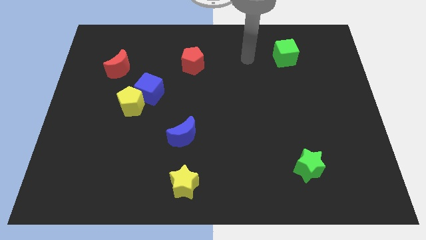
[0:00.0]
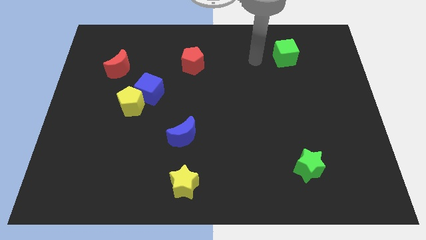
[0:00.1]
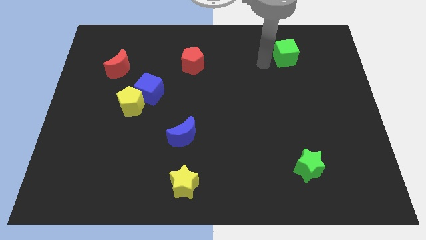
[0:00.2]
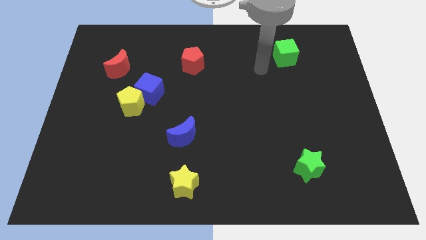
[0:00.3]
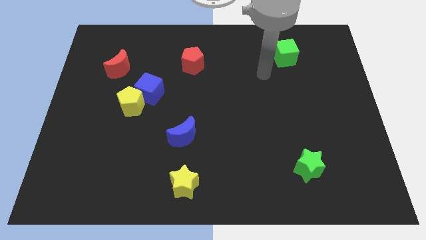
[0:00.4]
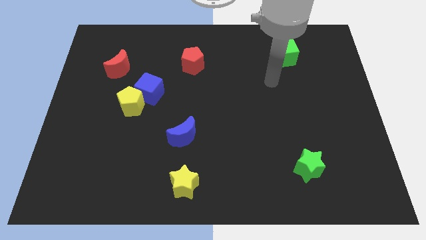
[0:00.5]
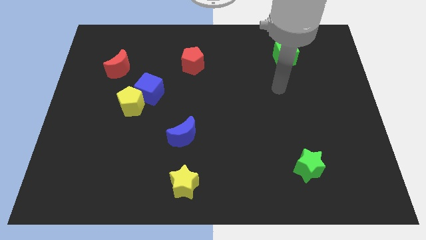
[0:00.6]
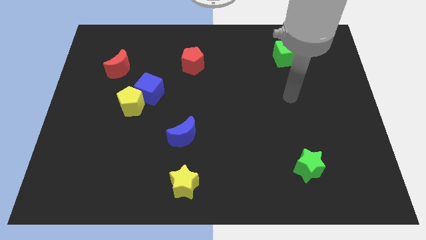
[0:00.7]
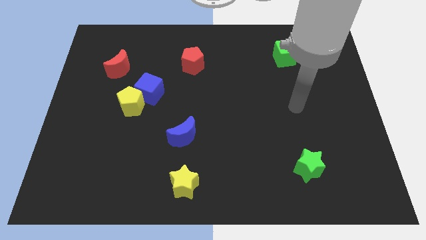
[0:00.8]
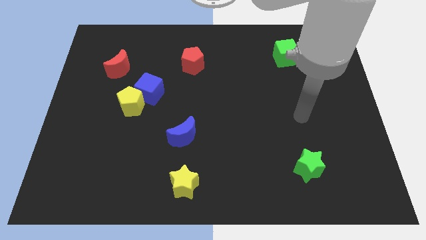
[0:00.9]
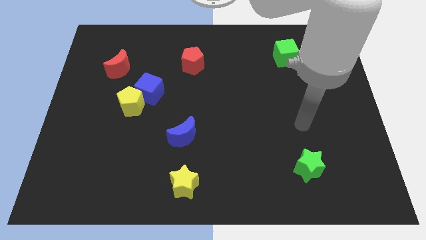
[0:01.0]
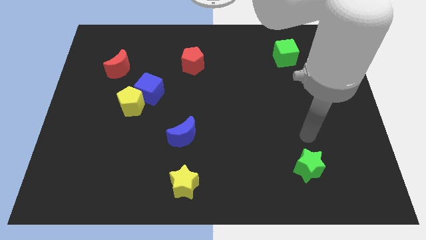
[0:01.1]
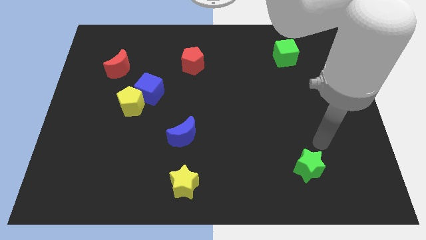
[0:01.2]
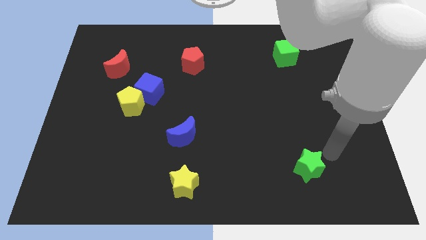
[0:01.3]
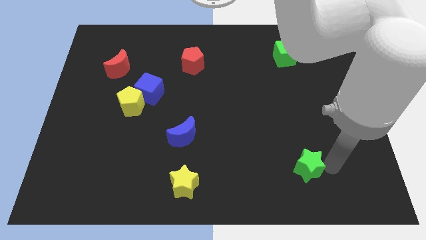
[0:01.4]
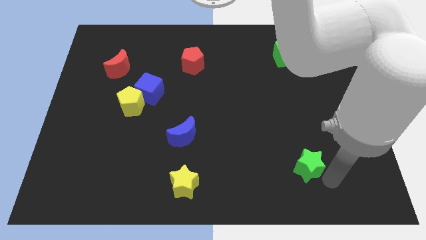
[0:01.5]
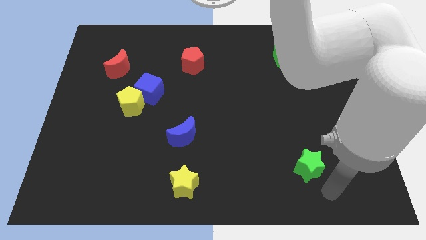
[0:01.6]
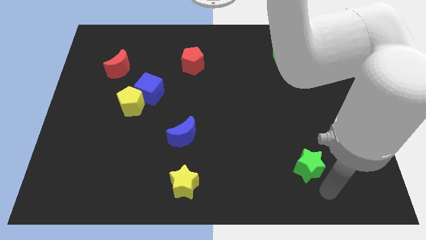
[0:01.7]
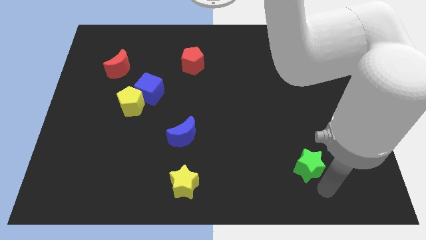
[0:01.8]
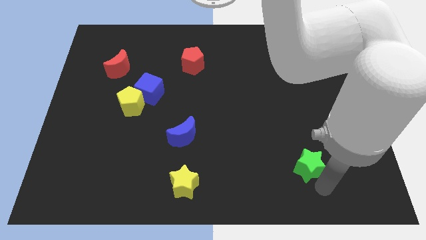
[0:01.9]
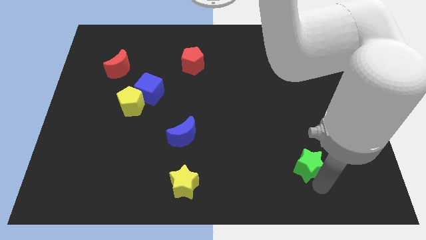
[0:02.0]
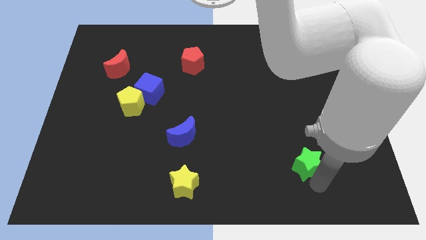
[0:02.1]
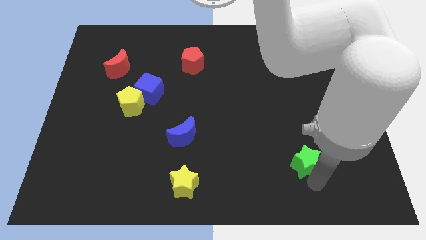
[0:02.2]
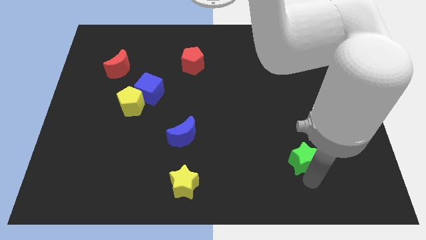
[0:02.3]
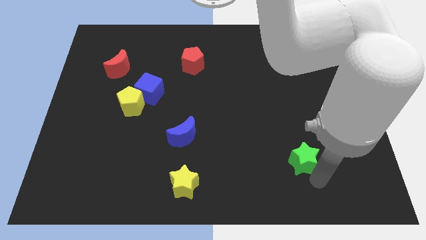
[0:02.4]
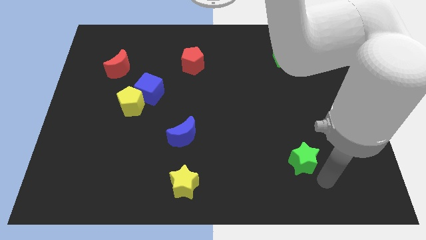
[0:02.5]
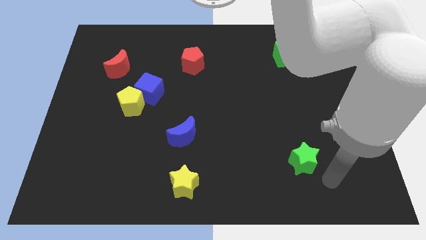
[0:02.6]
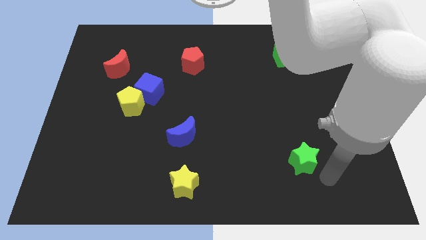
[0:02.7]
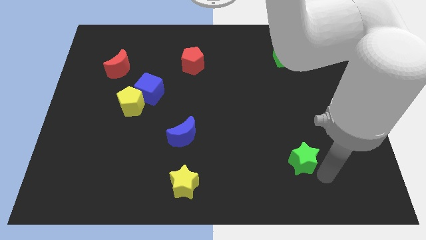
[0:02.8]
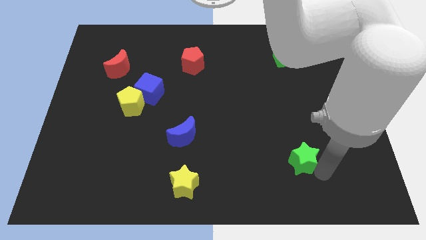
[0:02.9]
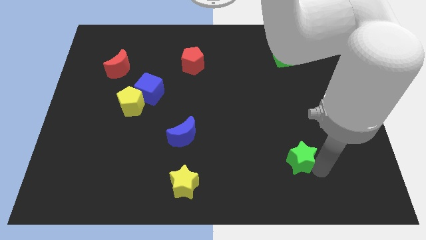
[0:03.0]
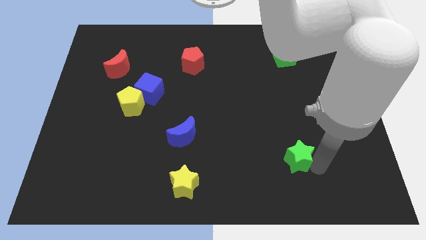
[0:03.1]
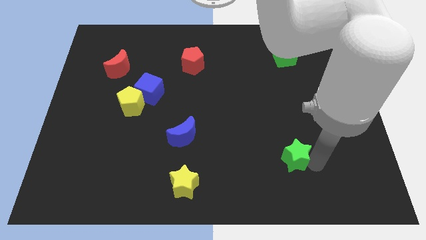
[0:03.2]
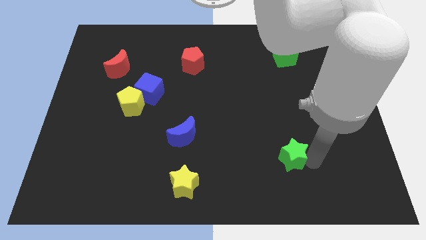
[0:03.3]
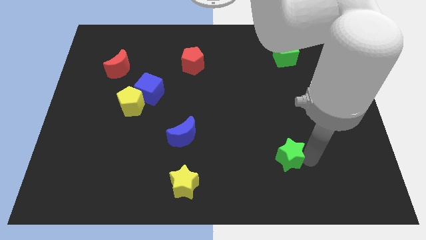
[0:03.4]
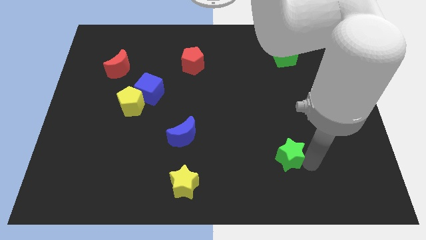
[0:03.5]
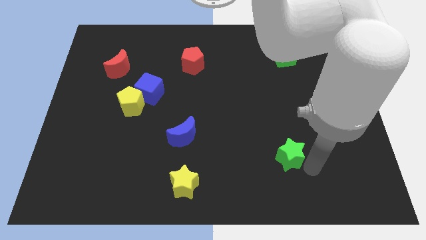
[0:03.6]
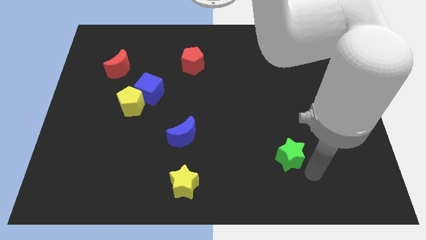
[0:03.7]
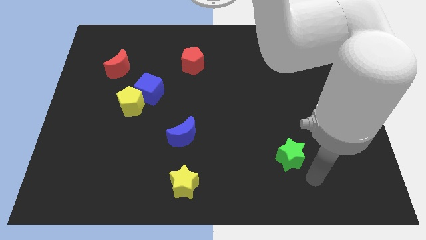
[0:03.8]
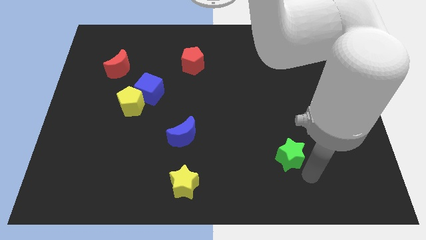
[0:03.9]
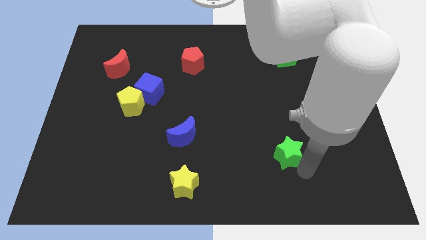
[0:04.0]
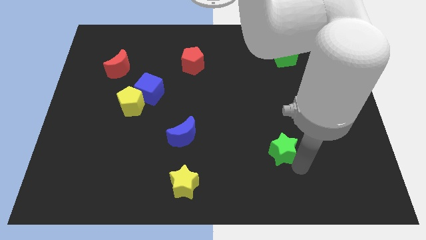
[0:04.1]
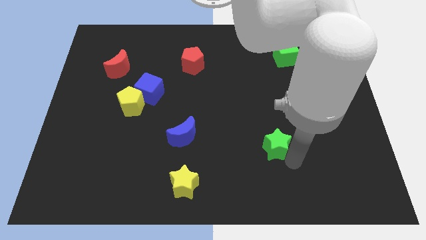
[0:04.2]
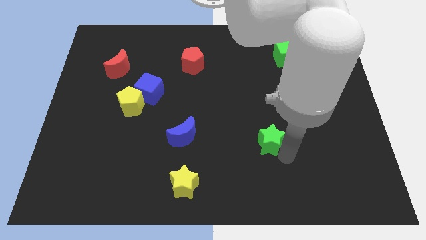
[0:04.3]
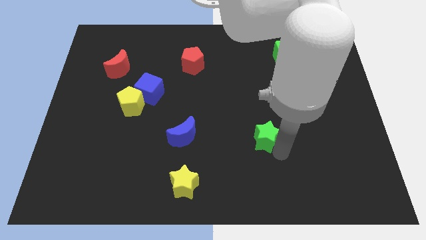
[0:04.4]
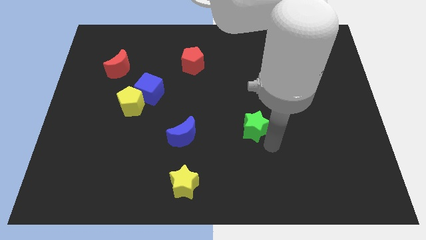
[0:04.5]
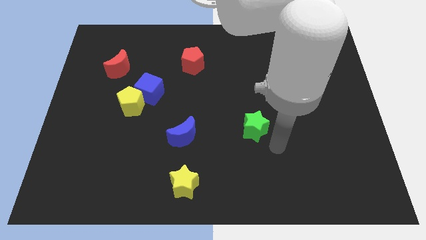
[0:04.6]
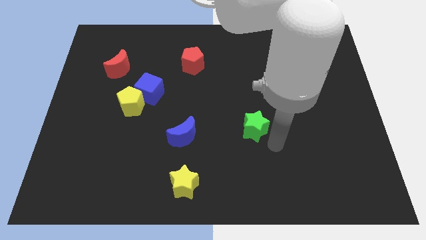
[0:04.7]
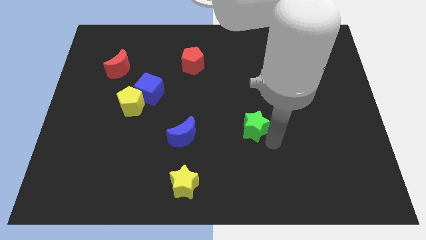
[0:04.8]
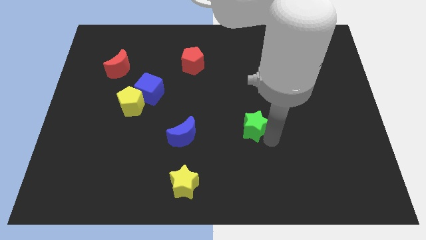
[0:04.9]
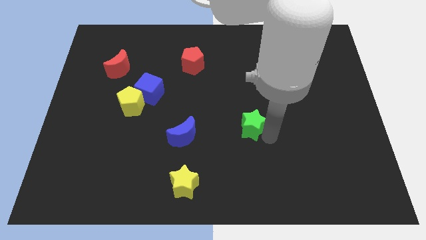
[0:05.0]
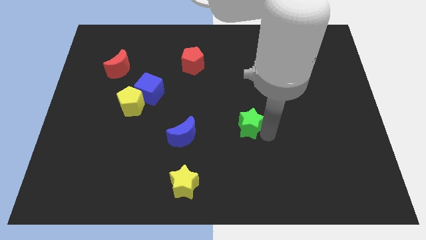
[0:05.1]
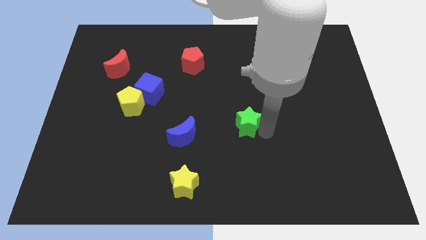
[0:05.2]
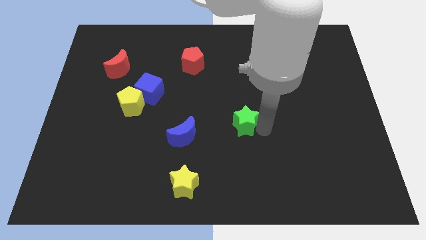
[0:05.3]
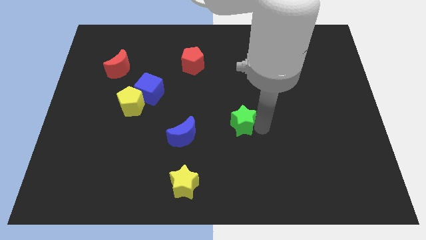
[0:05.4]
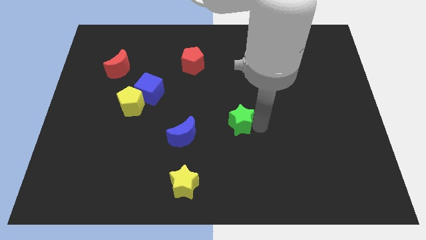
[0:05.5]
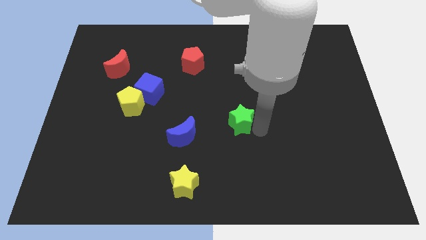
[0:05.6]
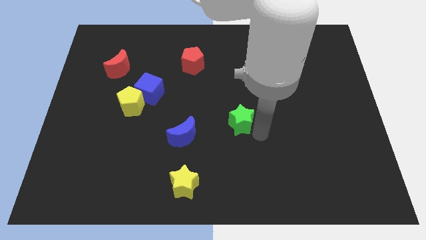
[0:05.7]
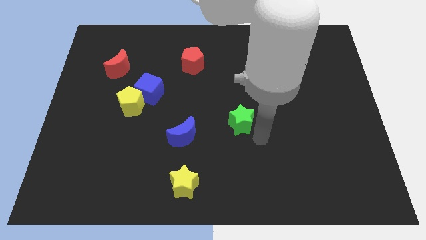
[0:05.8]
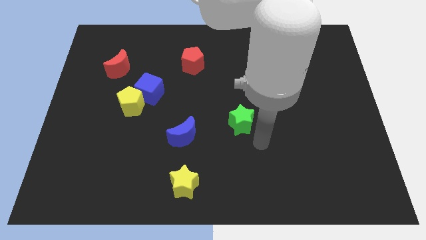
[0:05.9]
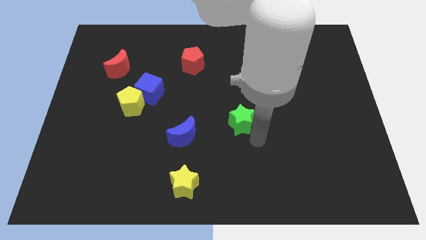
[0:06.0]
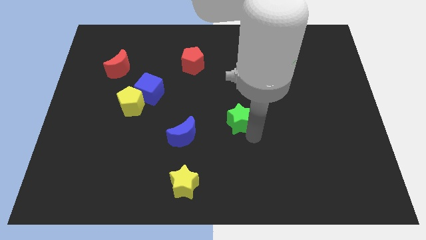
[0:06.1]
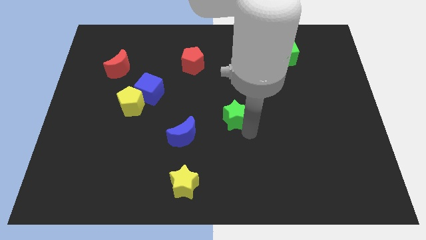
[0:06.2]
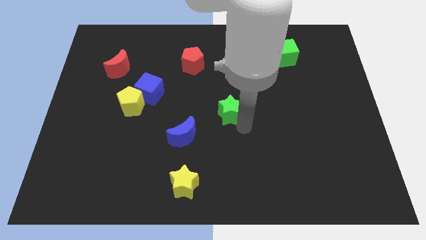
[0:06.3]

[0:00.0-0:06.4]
push the green star upwards and then left

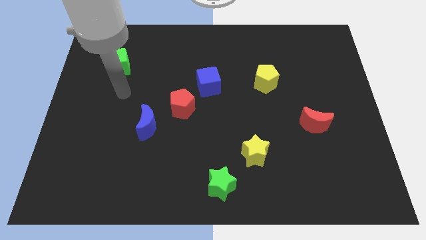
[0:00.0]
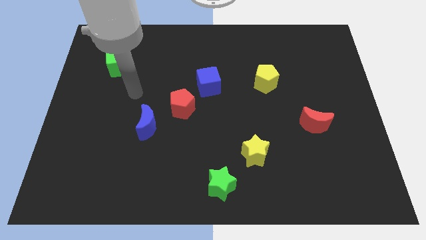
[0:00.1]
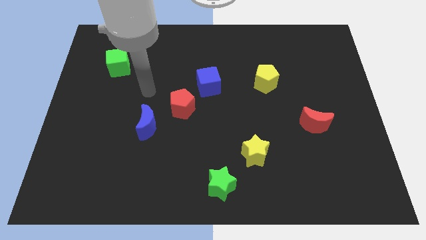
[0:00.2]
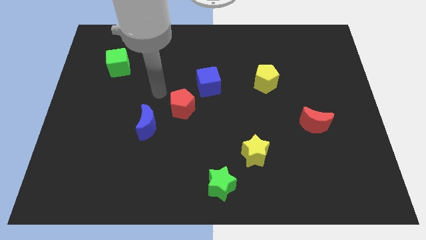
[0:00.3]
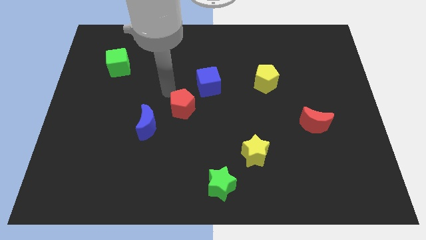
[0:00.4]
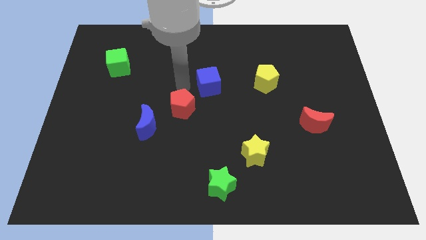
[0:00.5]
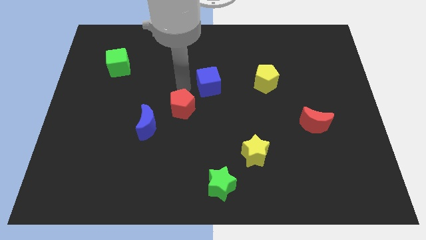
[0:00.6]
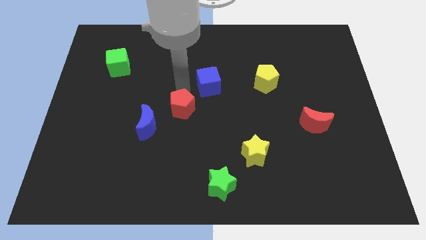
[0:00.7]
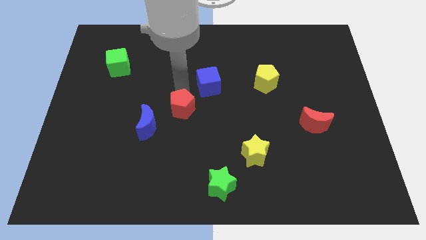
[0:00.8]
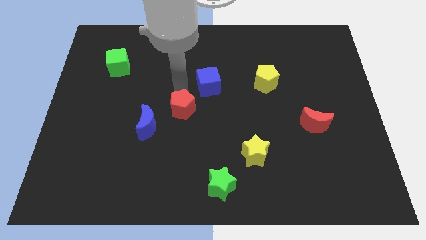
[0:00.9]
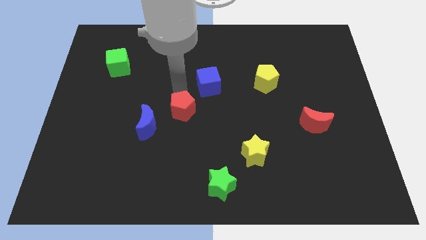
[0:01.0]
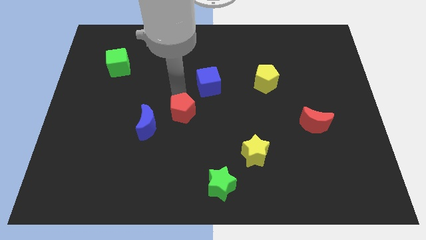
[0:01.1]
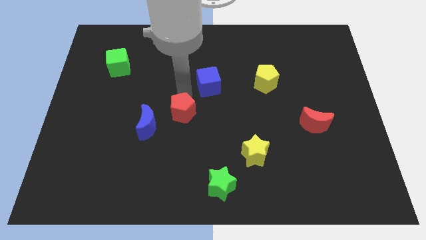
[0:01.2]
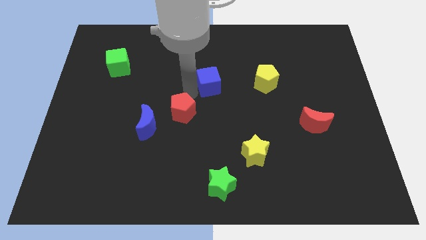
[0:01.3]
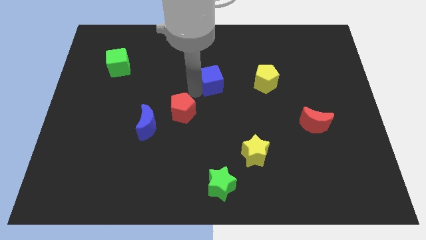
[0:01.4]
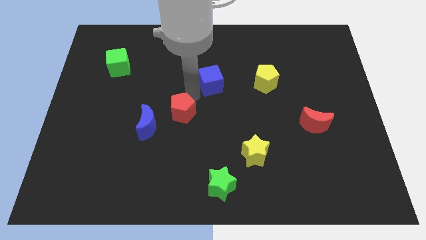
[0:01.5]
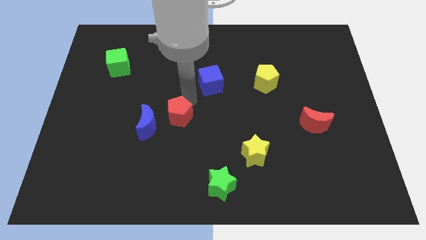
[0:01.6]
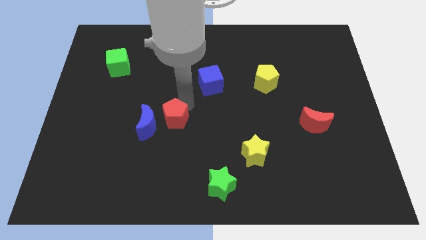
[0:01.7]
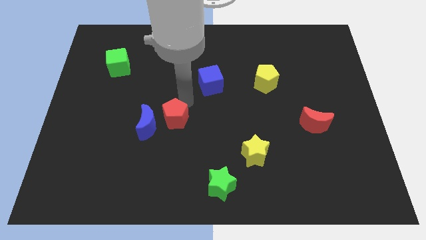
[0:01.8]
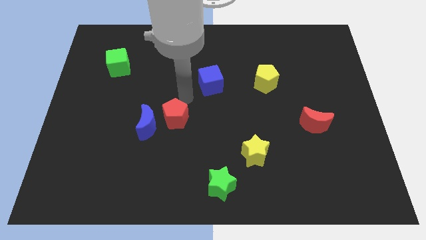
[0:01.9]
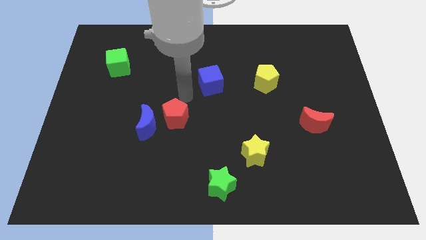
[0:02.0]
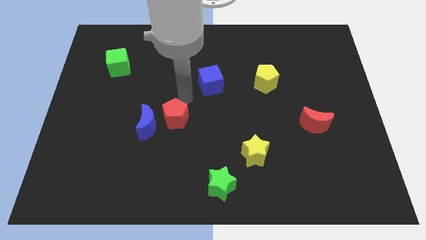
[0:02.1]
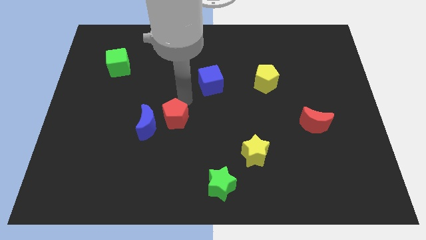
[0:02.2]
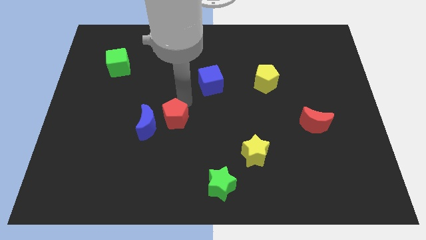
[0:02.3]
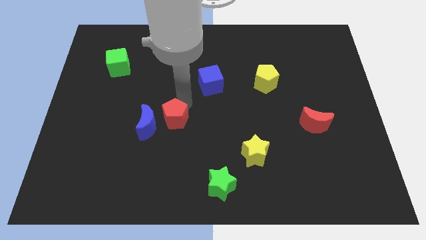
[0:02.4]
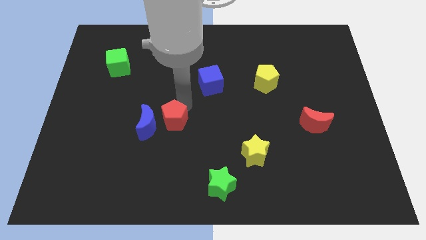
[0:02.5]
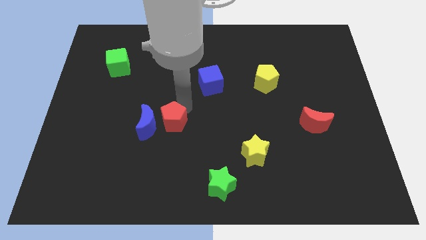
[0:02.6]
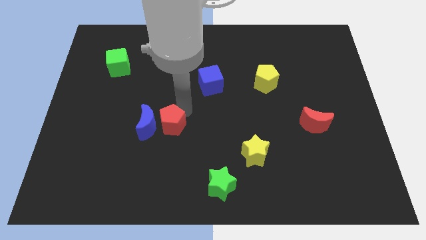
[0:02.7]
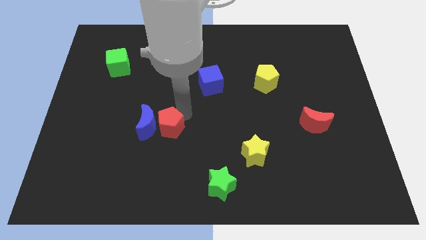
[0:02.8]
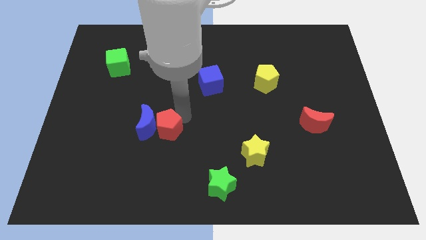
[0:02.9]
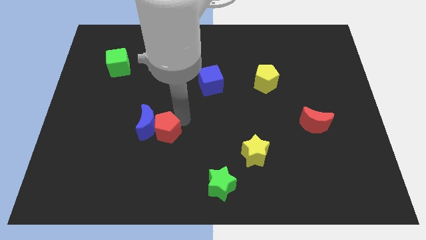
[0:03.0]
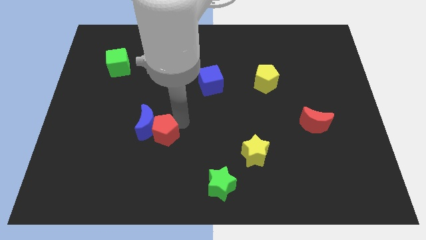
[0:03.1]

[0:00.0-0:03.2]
push the red pentagon down and to the left somewhat
